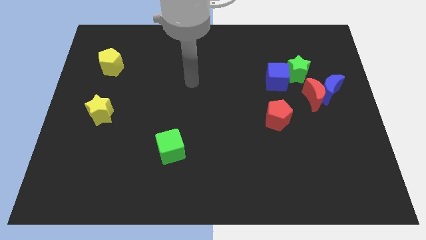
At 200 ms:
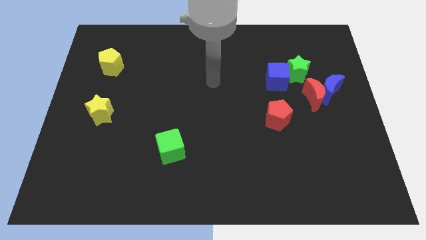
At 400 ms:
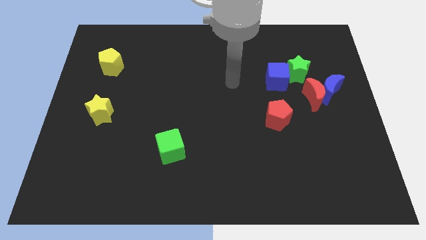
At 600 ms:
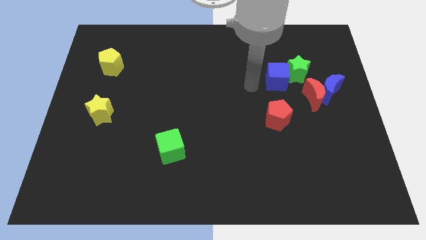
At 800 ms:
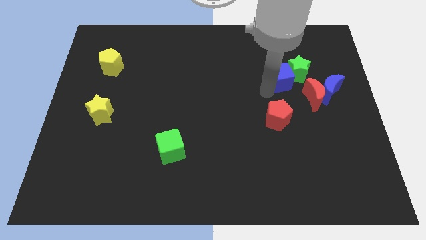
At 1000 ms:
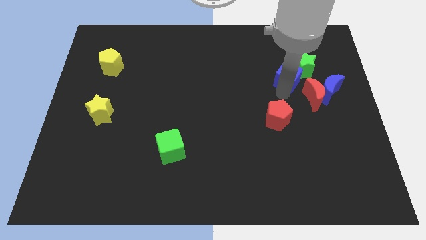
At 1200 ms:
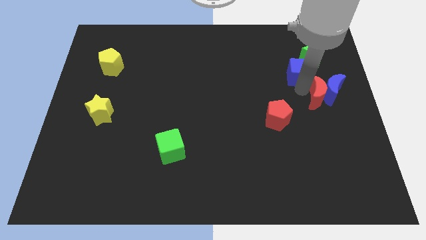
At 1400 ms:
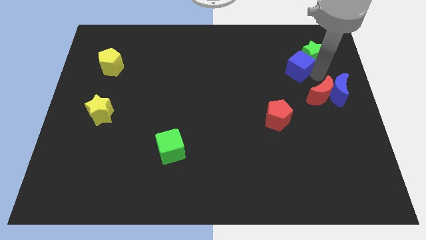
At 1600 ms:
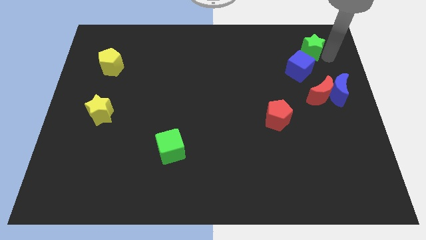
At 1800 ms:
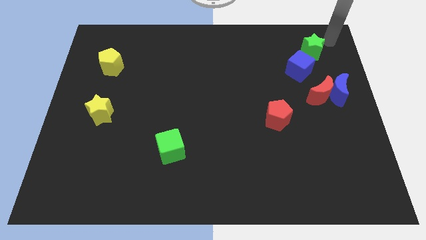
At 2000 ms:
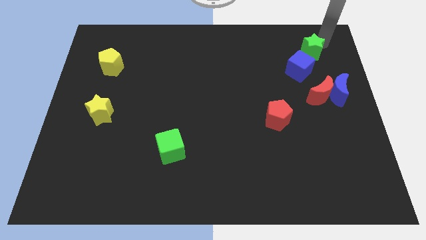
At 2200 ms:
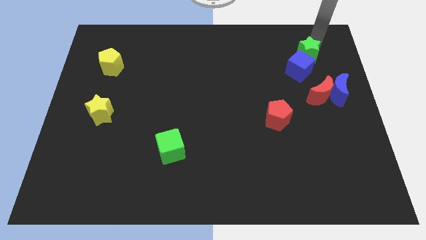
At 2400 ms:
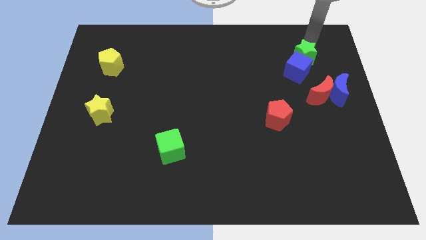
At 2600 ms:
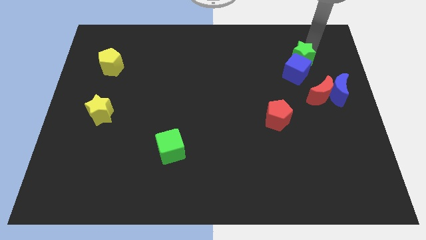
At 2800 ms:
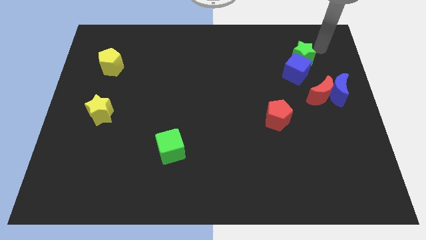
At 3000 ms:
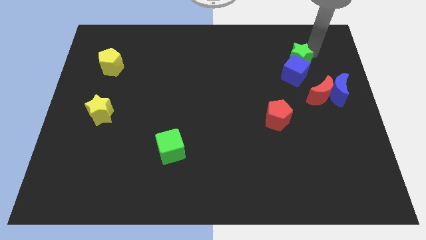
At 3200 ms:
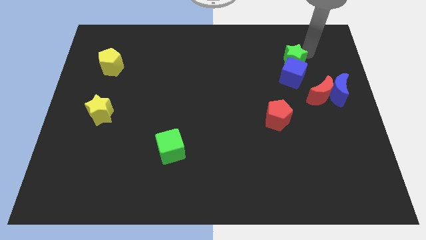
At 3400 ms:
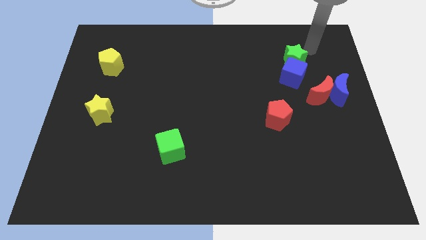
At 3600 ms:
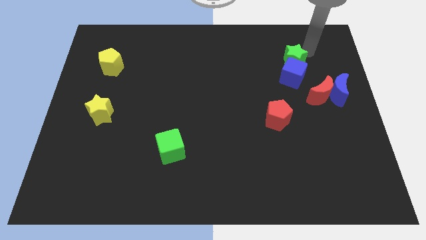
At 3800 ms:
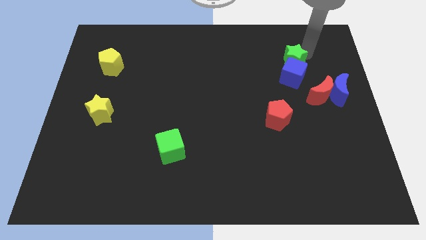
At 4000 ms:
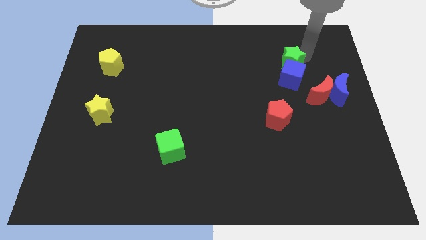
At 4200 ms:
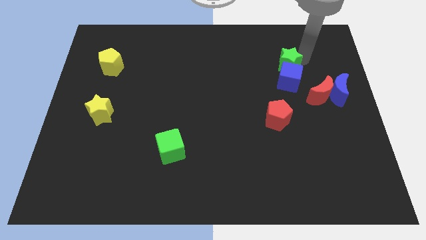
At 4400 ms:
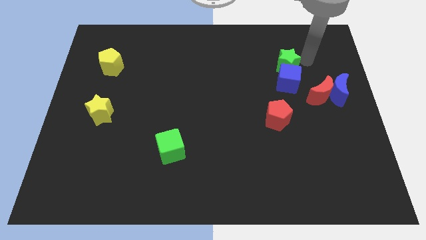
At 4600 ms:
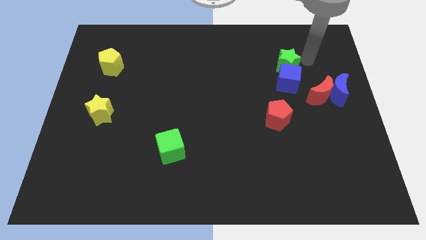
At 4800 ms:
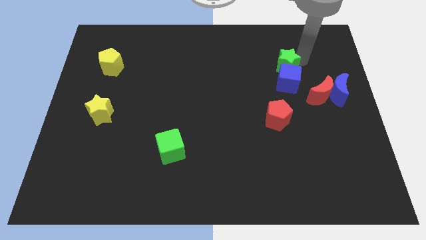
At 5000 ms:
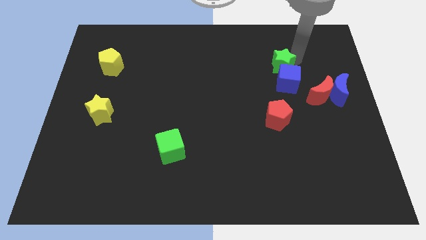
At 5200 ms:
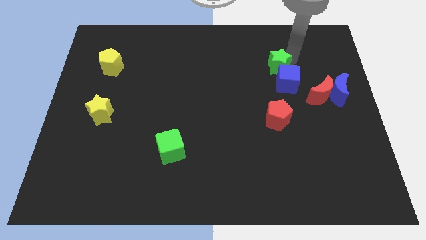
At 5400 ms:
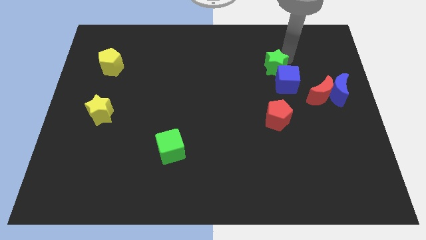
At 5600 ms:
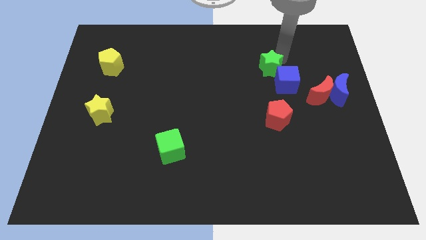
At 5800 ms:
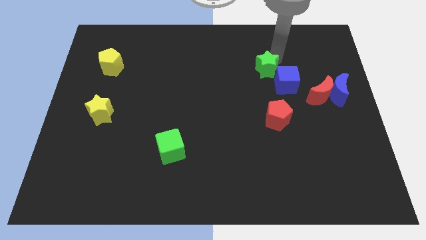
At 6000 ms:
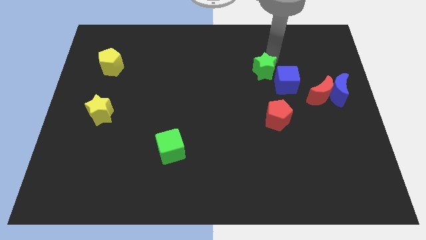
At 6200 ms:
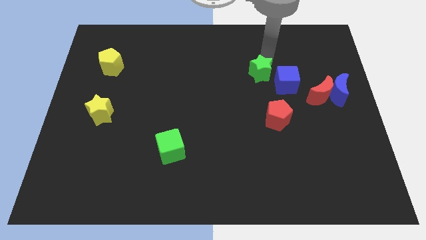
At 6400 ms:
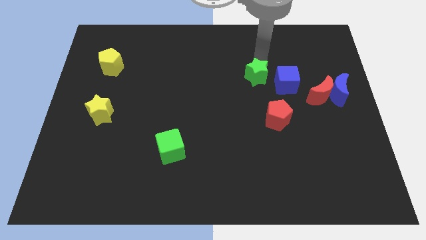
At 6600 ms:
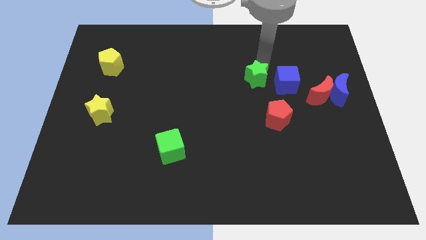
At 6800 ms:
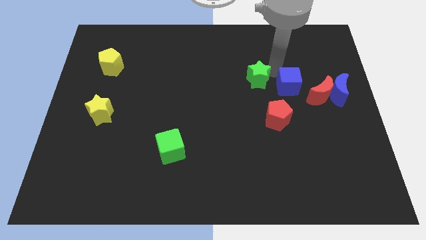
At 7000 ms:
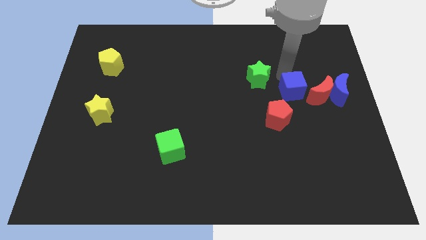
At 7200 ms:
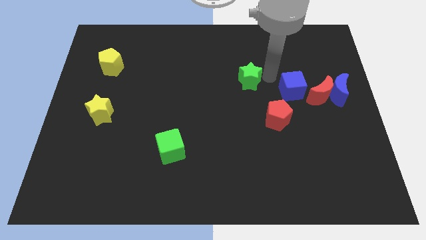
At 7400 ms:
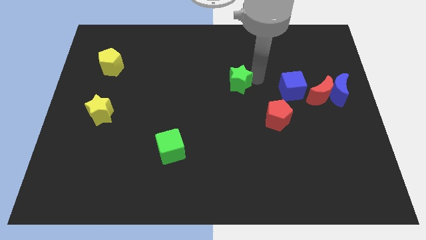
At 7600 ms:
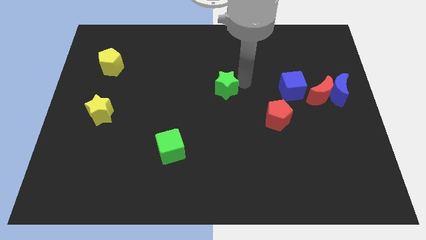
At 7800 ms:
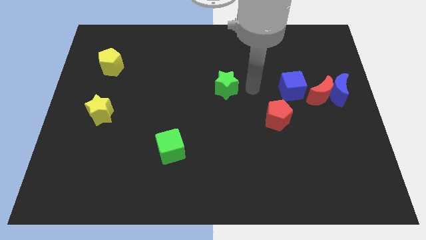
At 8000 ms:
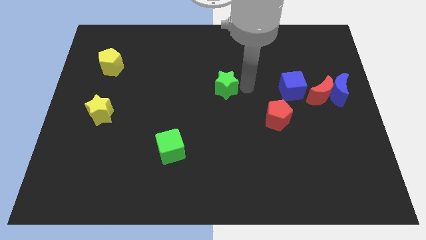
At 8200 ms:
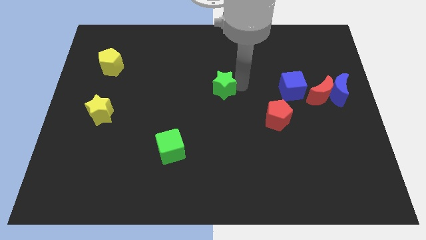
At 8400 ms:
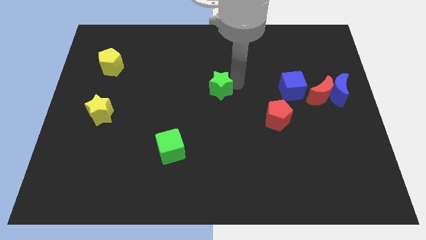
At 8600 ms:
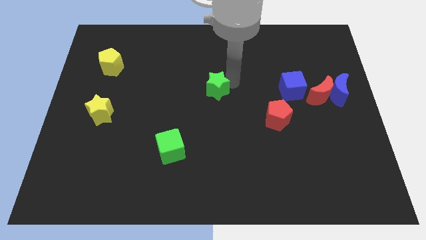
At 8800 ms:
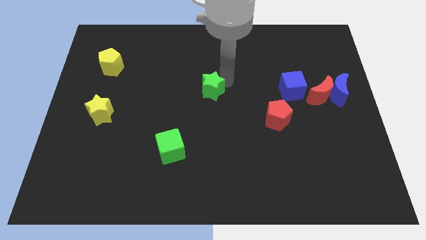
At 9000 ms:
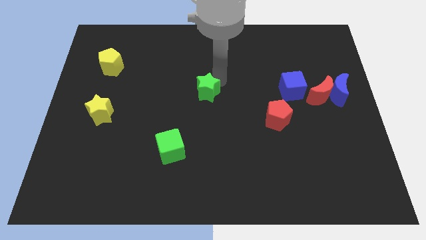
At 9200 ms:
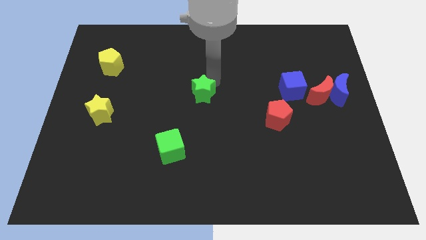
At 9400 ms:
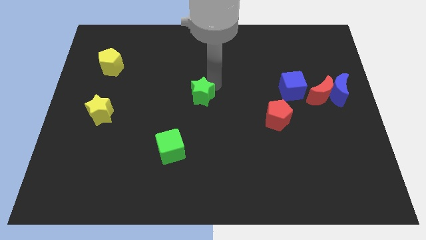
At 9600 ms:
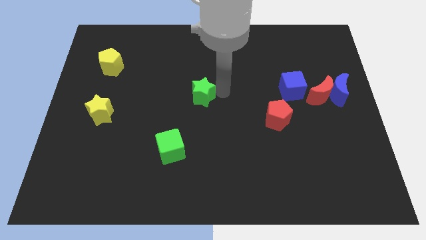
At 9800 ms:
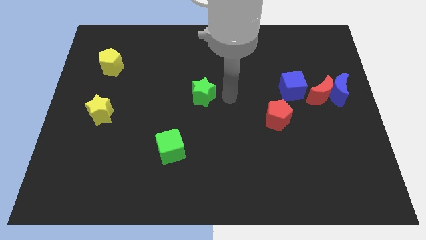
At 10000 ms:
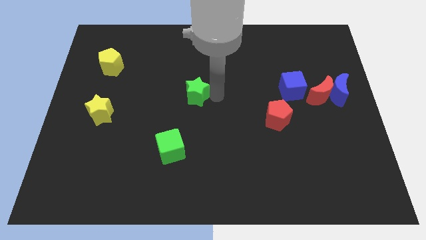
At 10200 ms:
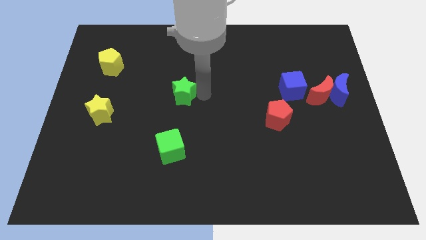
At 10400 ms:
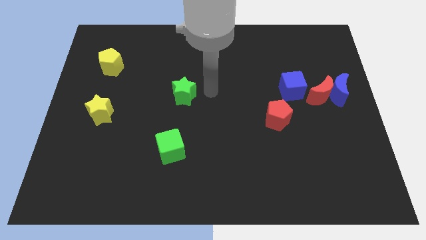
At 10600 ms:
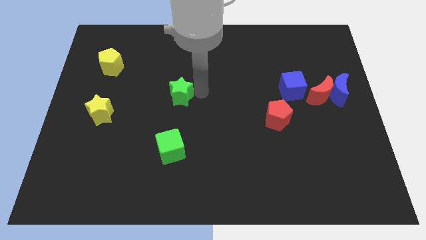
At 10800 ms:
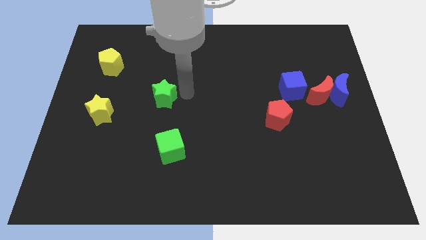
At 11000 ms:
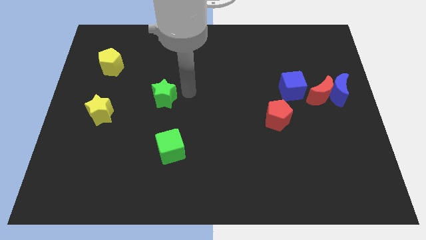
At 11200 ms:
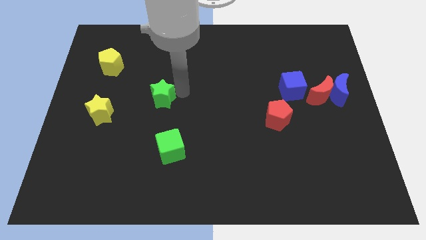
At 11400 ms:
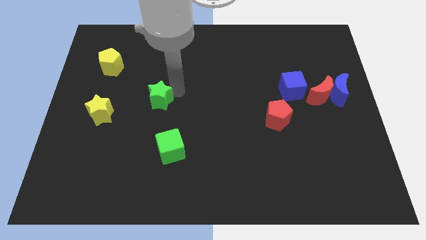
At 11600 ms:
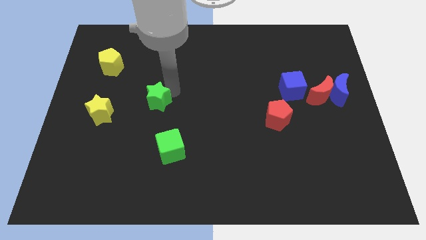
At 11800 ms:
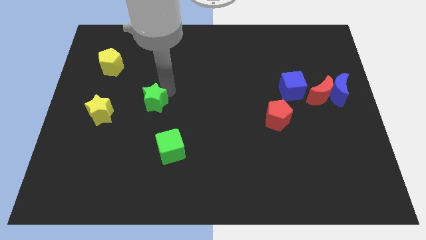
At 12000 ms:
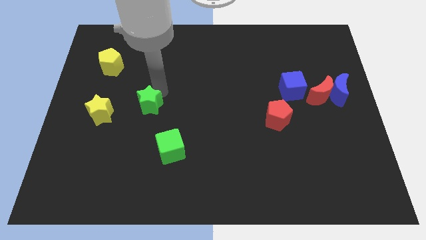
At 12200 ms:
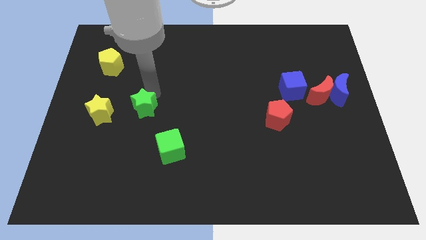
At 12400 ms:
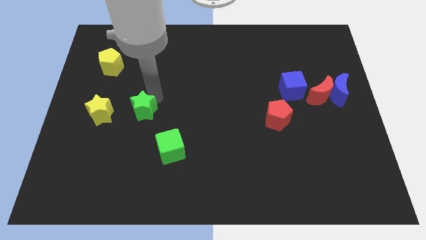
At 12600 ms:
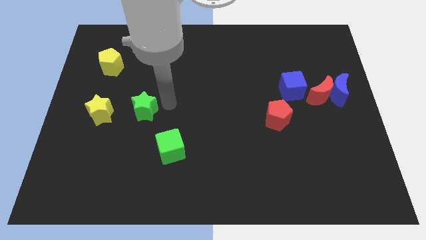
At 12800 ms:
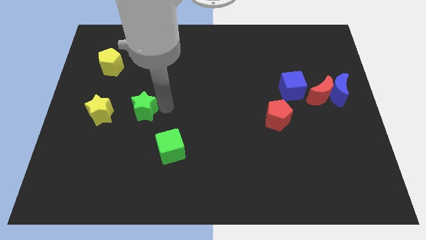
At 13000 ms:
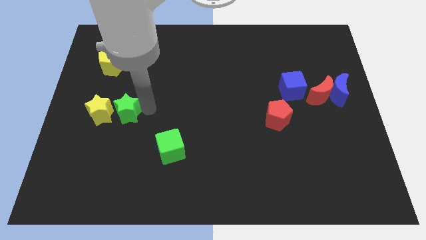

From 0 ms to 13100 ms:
put the green star close to the yellow star
